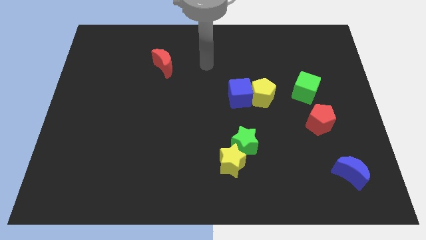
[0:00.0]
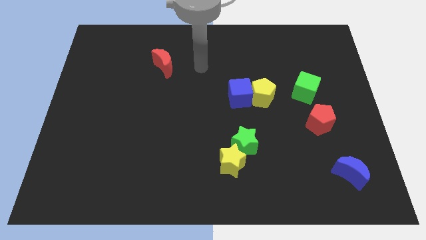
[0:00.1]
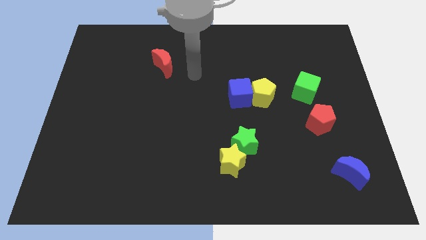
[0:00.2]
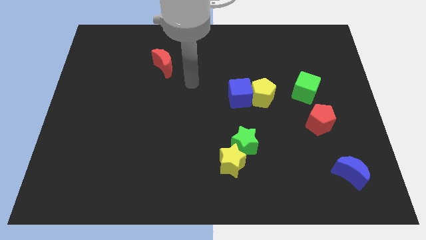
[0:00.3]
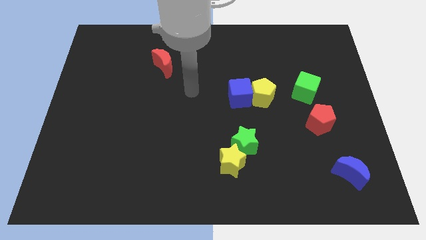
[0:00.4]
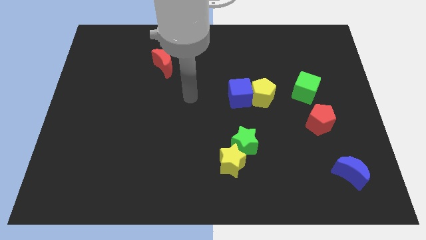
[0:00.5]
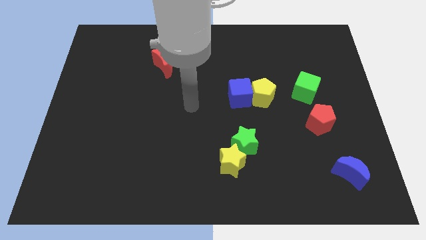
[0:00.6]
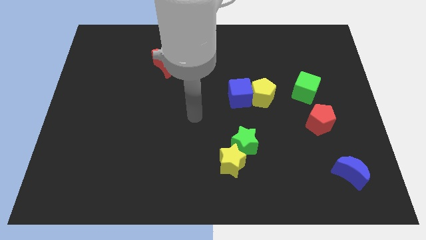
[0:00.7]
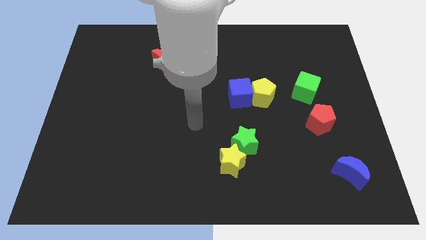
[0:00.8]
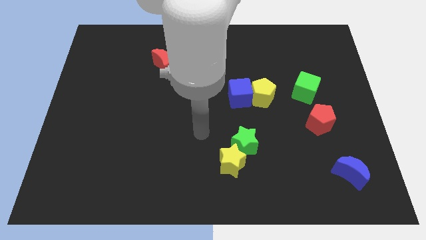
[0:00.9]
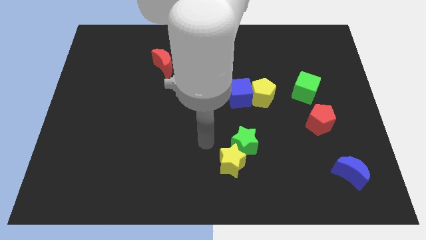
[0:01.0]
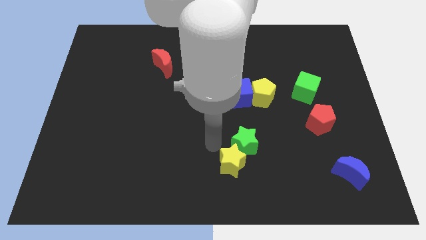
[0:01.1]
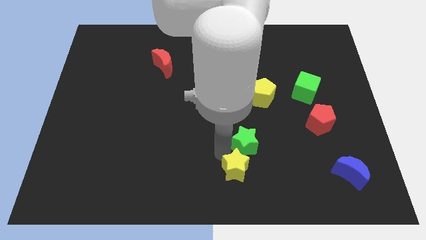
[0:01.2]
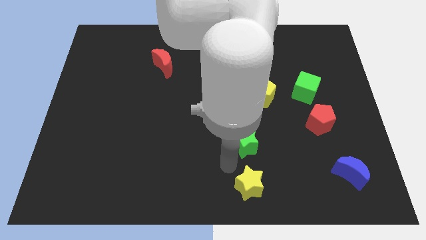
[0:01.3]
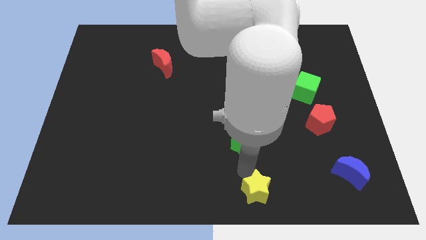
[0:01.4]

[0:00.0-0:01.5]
pull the green star apart from the yellow star

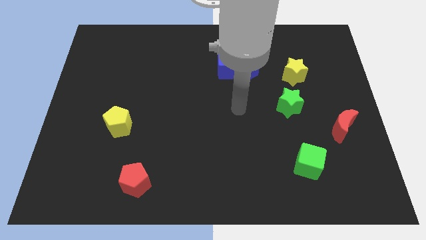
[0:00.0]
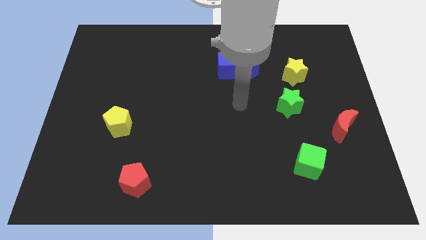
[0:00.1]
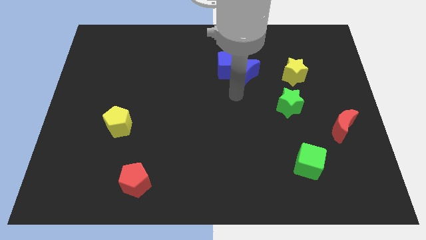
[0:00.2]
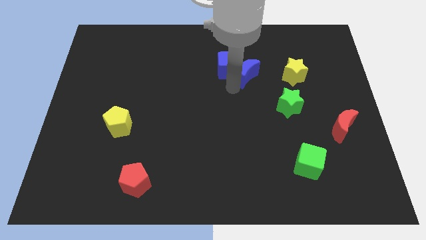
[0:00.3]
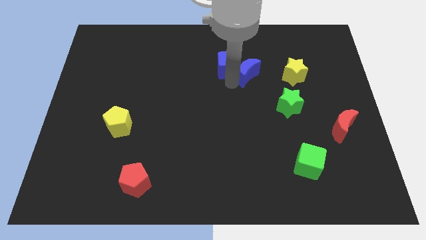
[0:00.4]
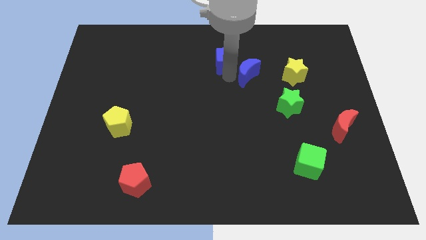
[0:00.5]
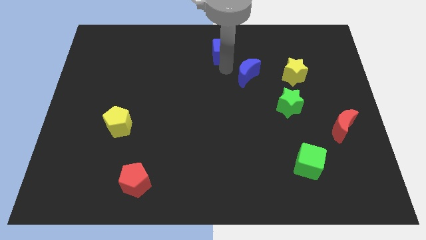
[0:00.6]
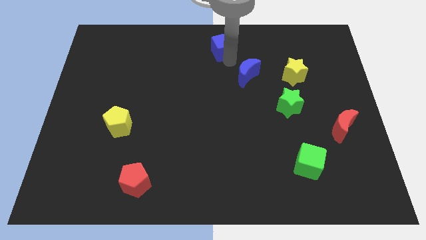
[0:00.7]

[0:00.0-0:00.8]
move the blue moon away from the blue cube

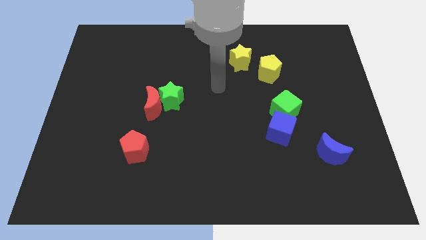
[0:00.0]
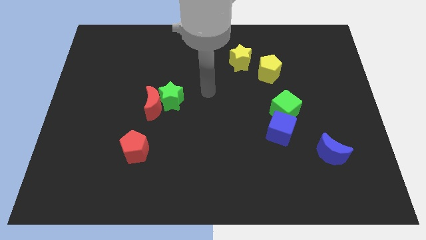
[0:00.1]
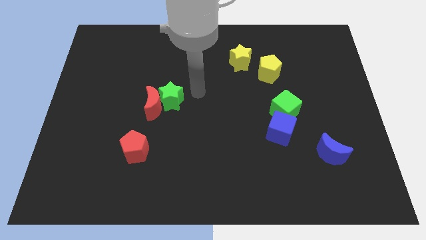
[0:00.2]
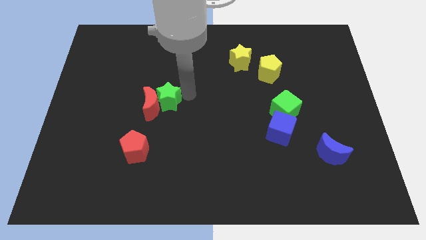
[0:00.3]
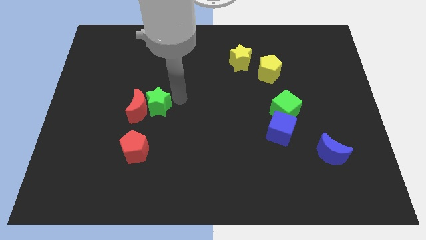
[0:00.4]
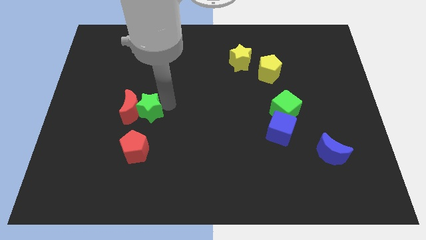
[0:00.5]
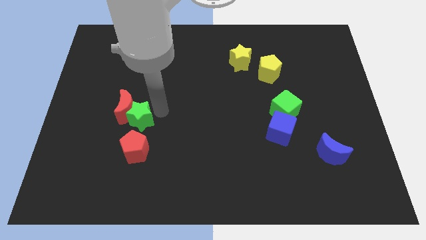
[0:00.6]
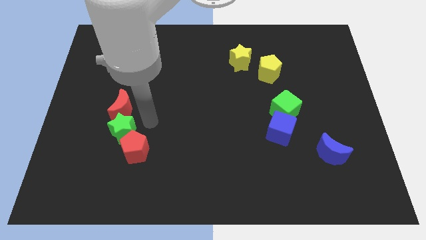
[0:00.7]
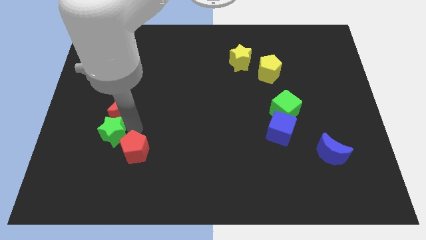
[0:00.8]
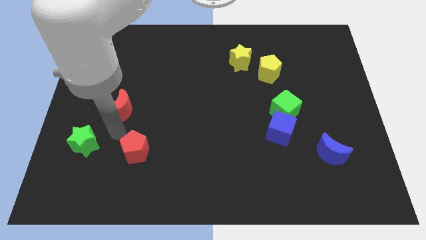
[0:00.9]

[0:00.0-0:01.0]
pull the red moon apart from the green star

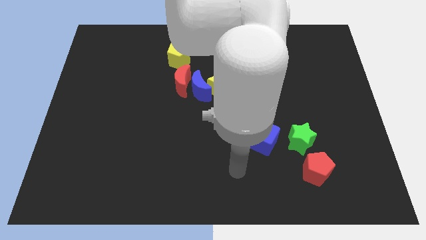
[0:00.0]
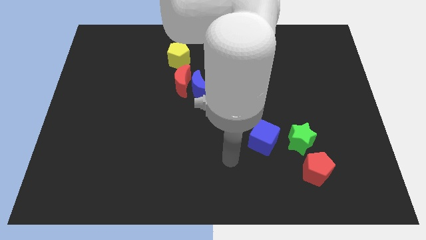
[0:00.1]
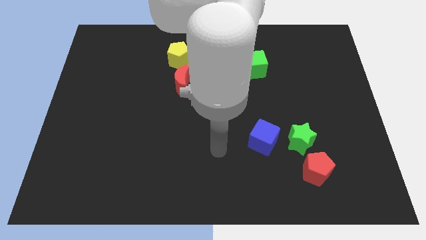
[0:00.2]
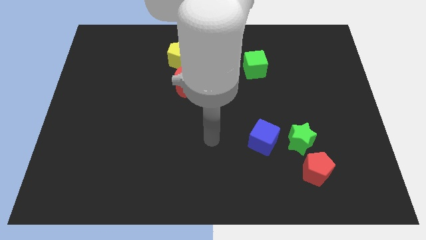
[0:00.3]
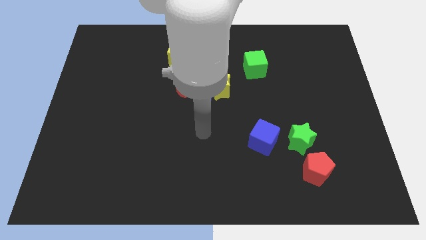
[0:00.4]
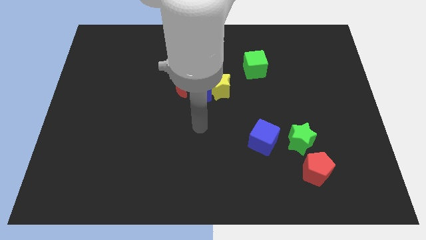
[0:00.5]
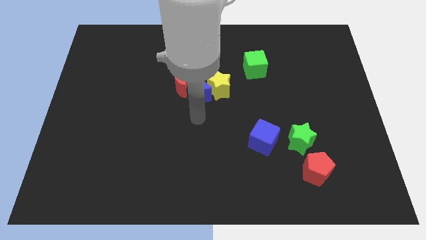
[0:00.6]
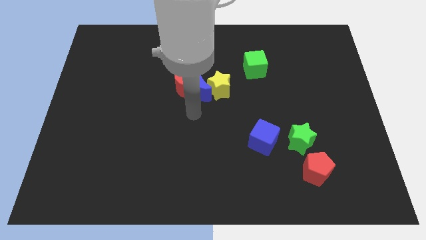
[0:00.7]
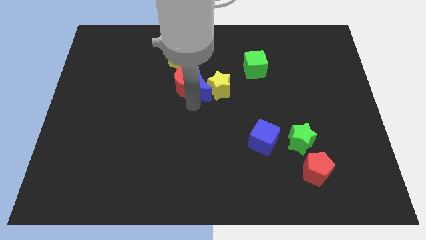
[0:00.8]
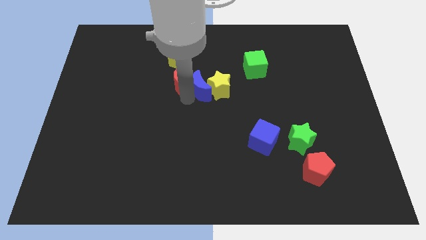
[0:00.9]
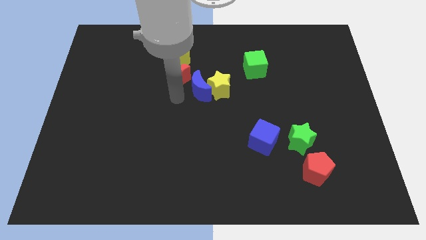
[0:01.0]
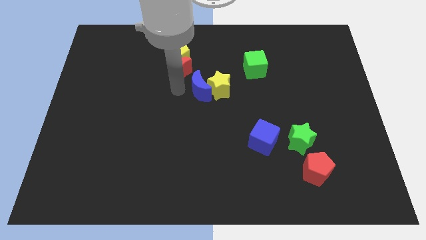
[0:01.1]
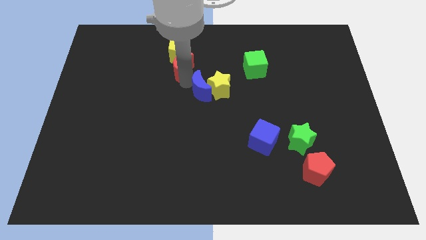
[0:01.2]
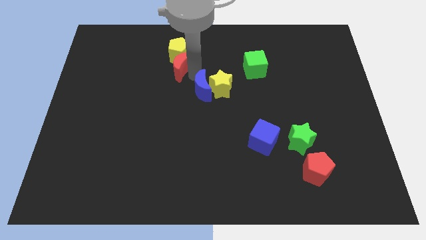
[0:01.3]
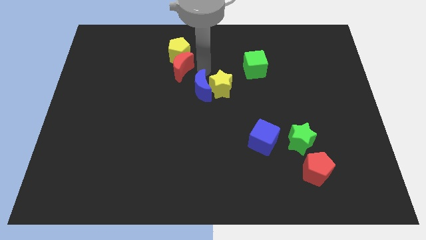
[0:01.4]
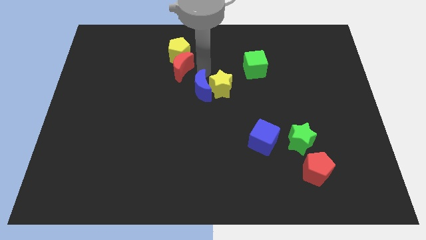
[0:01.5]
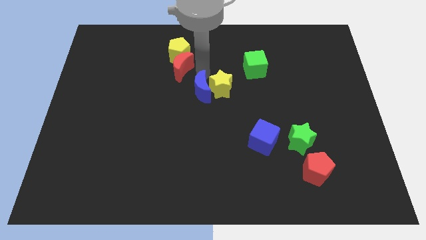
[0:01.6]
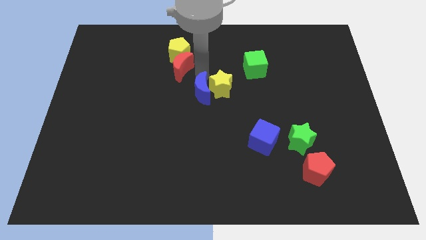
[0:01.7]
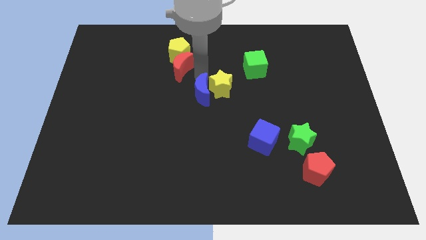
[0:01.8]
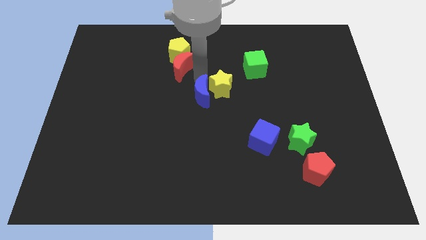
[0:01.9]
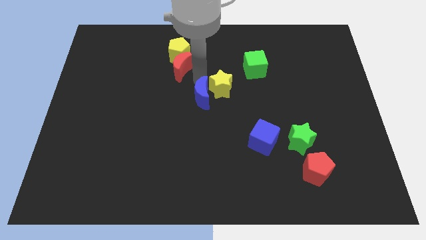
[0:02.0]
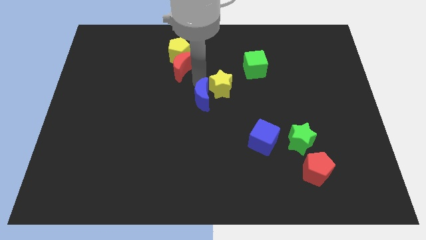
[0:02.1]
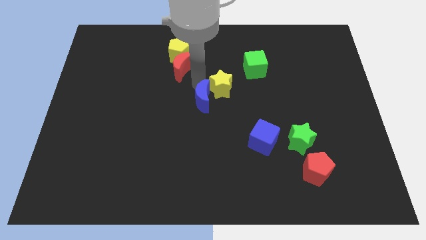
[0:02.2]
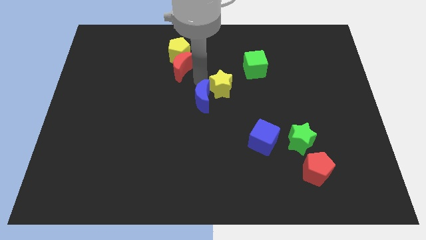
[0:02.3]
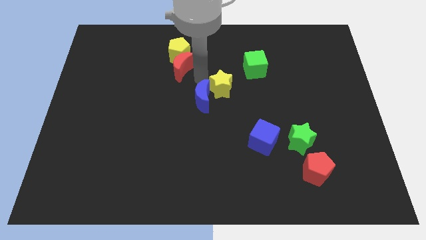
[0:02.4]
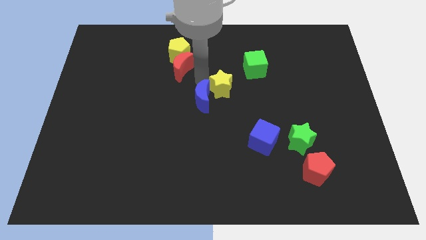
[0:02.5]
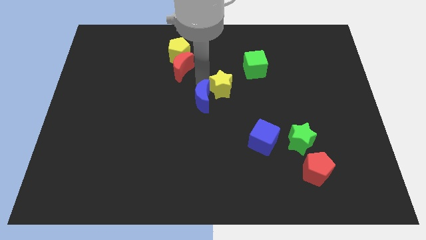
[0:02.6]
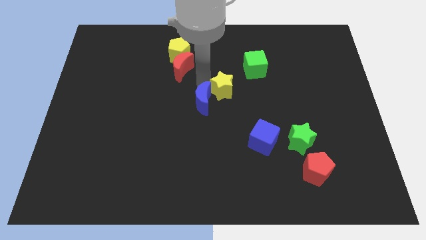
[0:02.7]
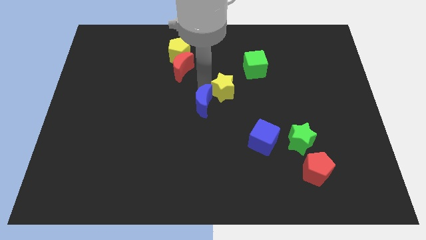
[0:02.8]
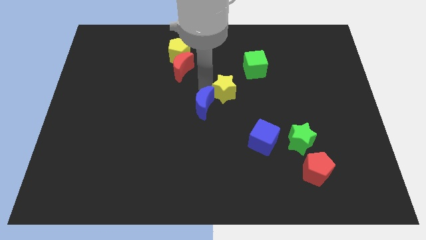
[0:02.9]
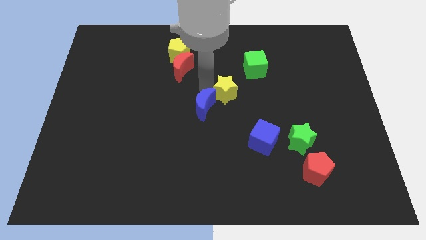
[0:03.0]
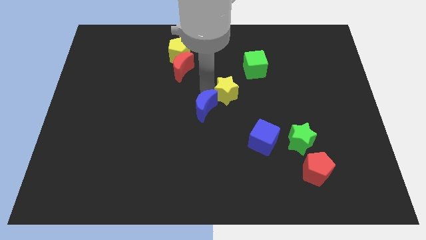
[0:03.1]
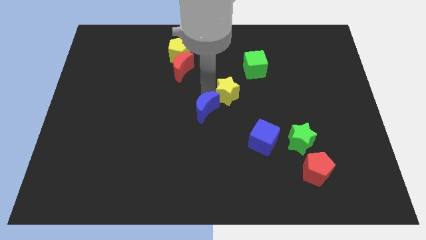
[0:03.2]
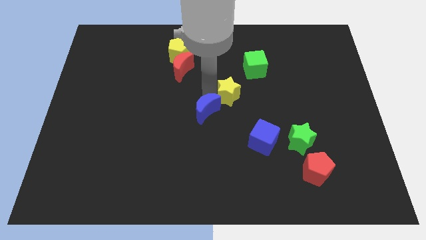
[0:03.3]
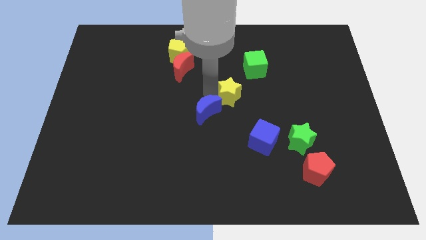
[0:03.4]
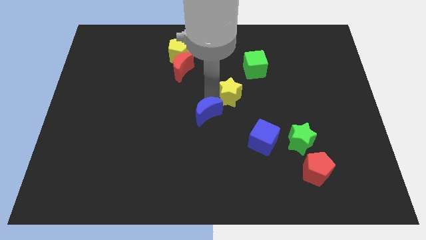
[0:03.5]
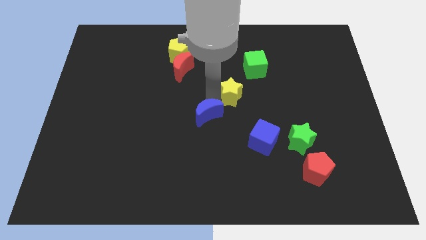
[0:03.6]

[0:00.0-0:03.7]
pull the blue moon apart from the yellow star and red moon

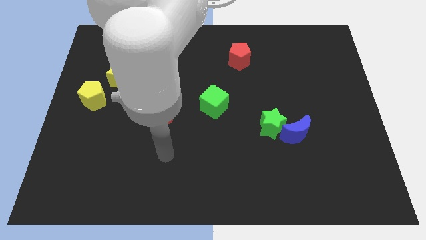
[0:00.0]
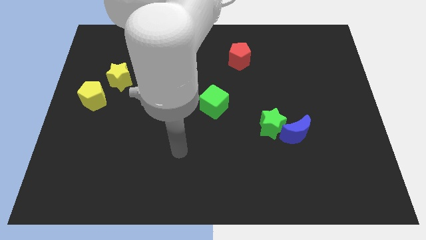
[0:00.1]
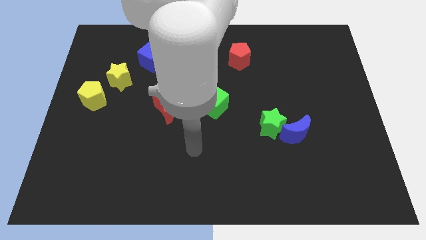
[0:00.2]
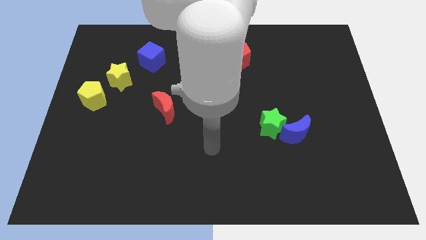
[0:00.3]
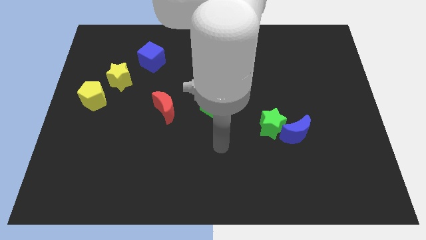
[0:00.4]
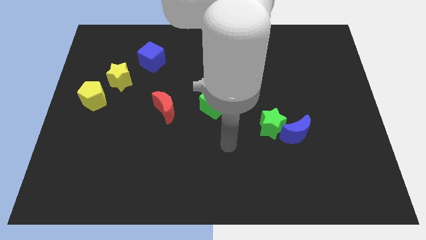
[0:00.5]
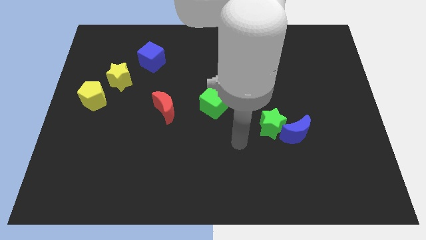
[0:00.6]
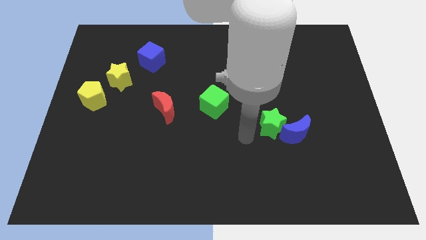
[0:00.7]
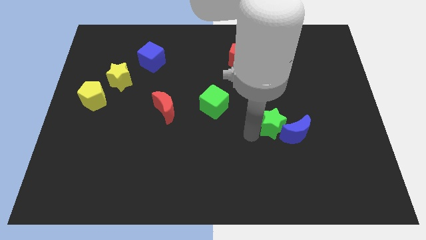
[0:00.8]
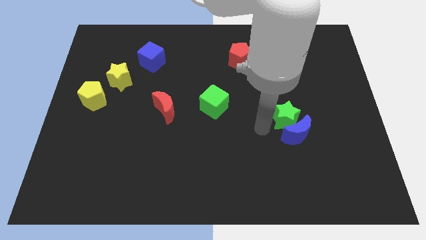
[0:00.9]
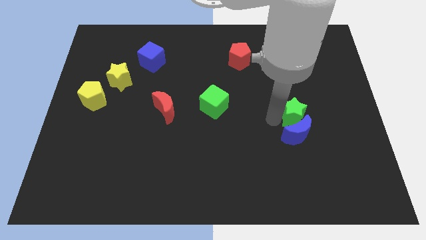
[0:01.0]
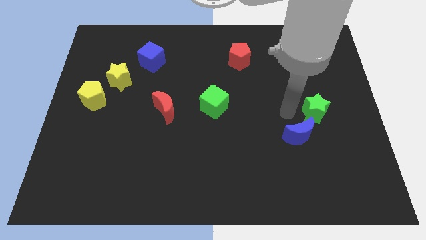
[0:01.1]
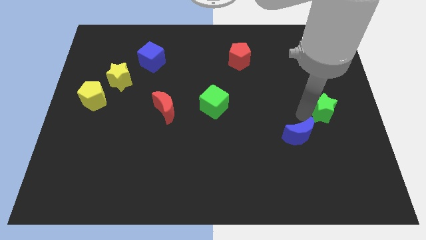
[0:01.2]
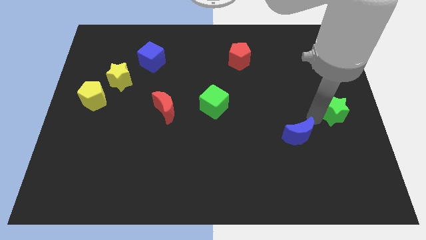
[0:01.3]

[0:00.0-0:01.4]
move the blue moon away from the green star

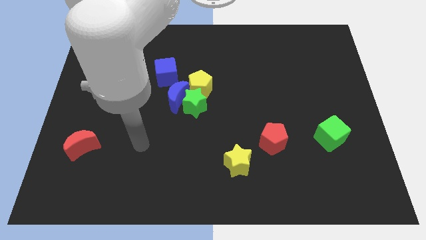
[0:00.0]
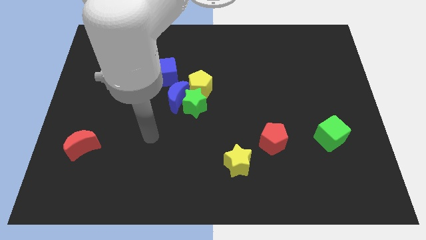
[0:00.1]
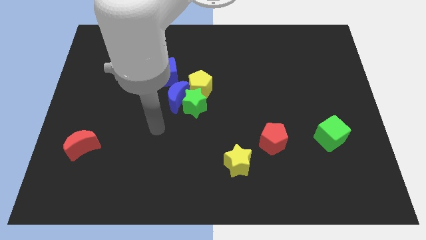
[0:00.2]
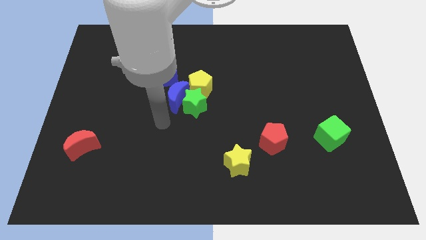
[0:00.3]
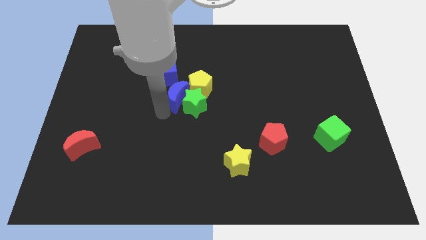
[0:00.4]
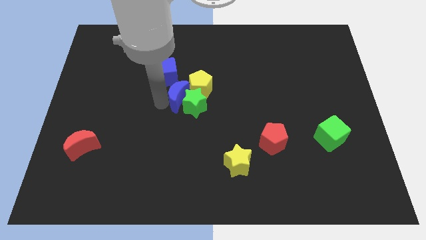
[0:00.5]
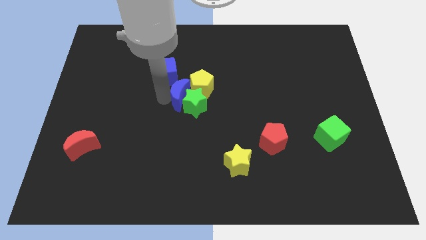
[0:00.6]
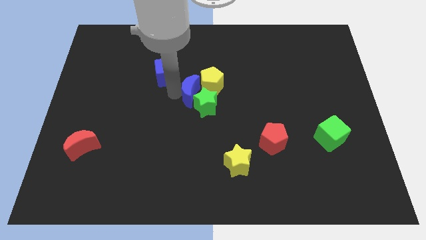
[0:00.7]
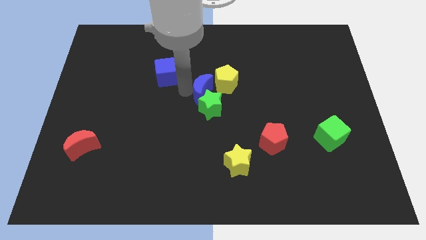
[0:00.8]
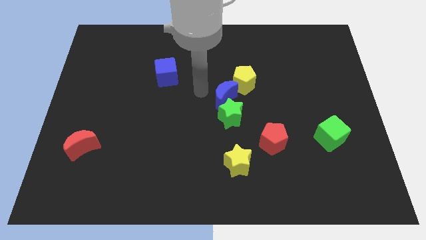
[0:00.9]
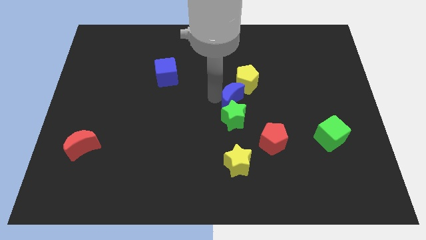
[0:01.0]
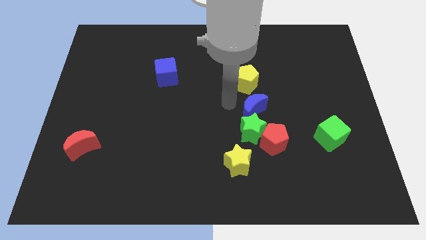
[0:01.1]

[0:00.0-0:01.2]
move the green star away from the blue moon and yellow pentagon
